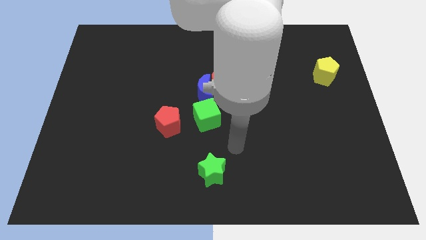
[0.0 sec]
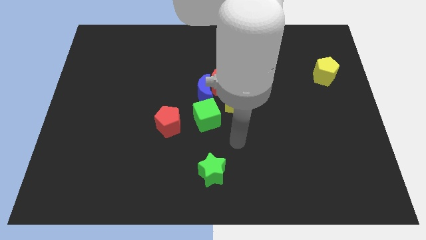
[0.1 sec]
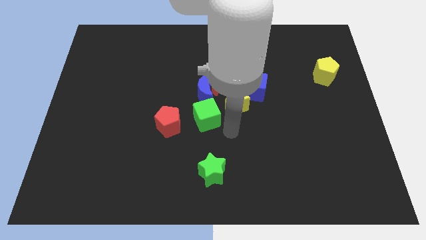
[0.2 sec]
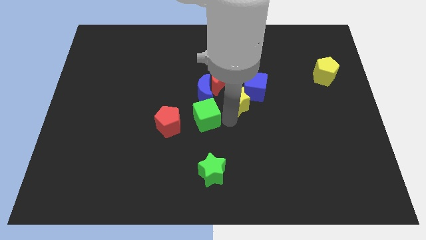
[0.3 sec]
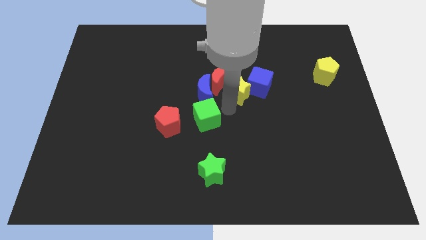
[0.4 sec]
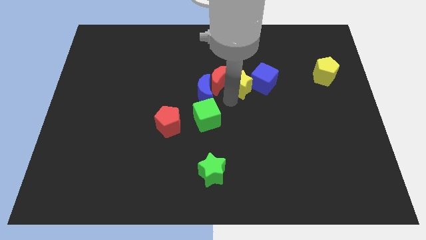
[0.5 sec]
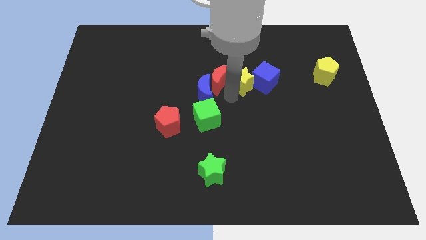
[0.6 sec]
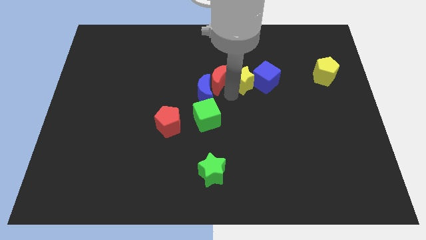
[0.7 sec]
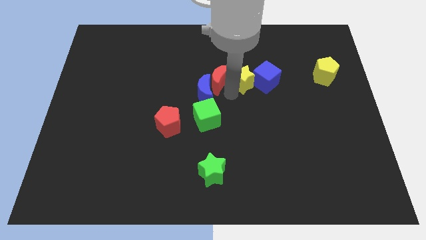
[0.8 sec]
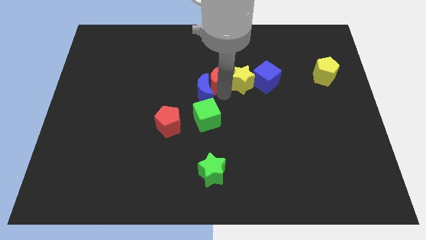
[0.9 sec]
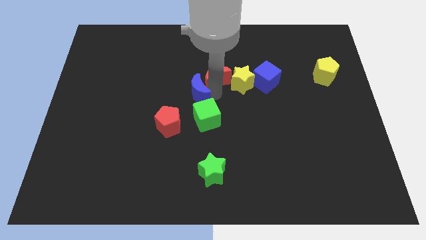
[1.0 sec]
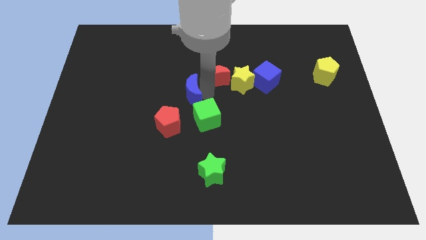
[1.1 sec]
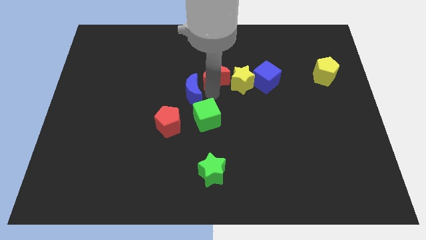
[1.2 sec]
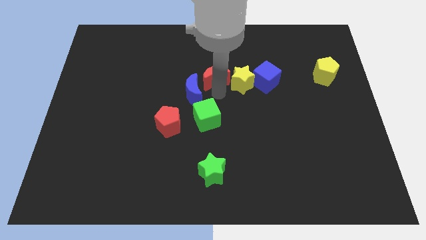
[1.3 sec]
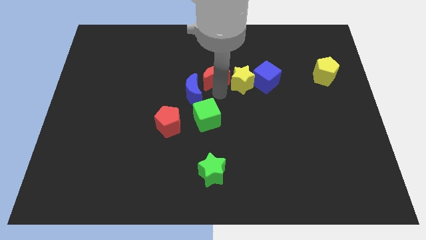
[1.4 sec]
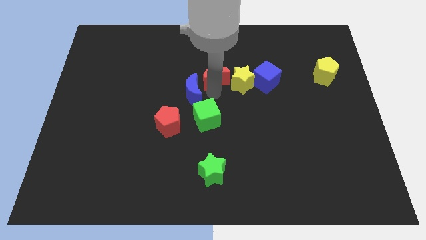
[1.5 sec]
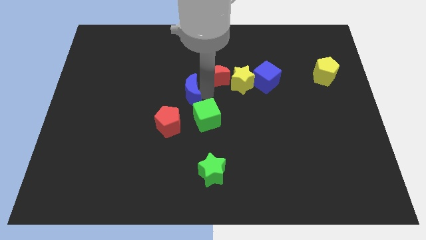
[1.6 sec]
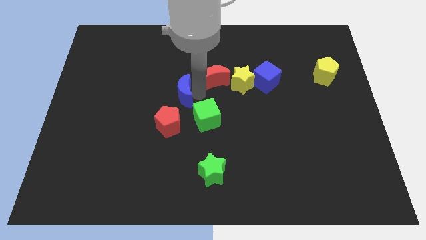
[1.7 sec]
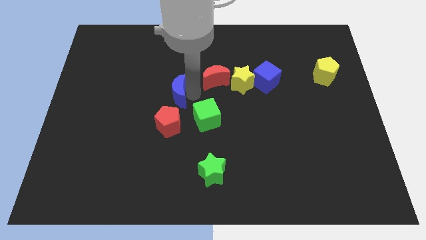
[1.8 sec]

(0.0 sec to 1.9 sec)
pull the blue moon apart from the group of blocks

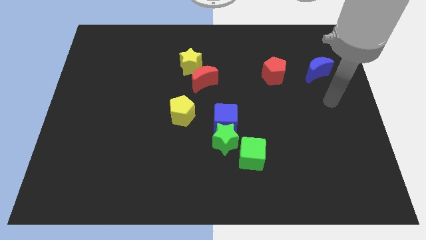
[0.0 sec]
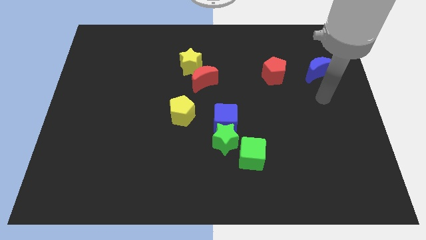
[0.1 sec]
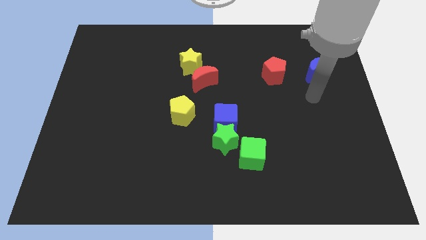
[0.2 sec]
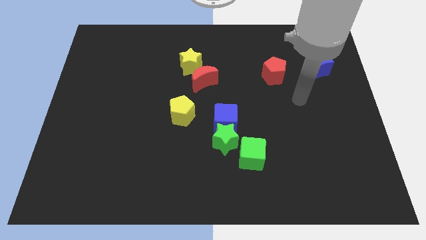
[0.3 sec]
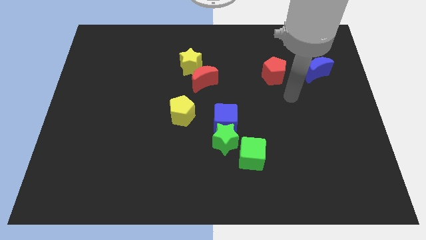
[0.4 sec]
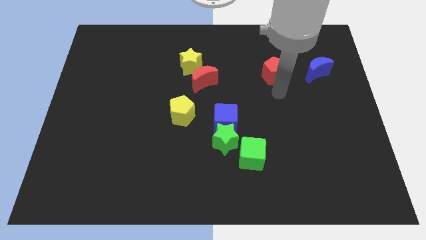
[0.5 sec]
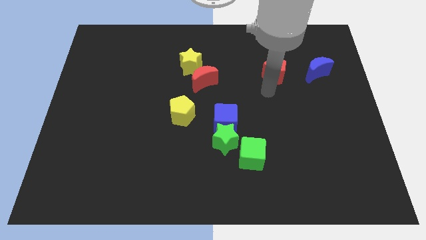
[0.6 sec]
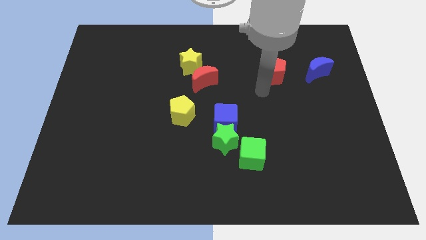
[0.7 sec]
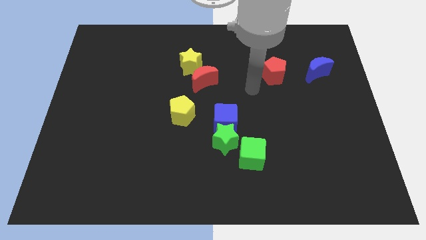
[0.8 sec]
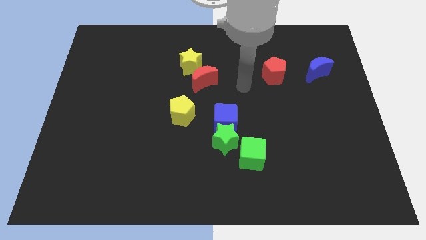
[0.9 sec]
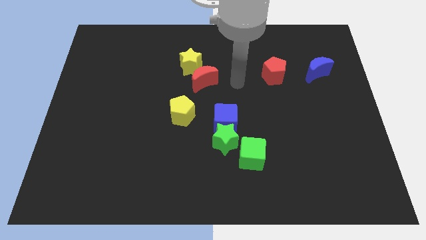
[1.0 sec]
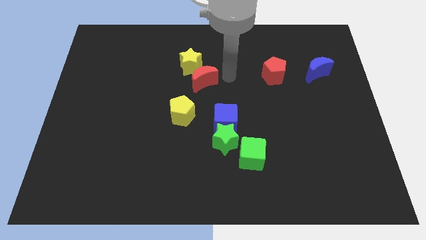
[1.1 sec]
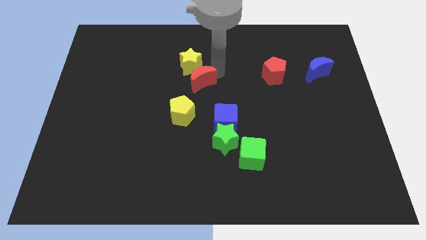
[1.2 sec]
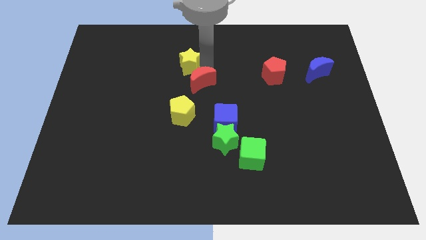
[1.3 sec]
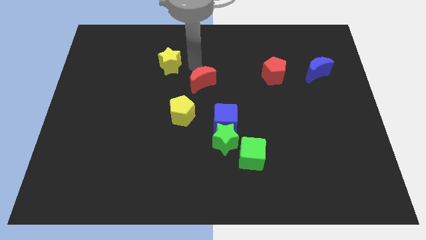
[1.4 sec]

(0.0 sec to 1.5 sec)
pull the red moon apart from the yellow star

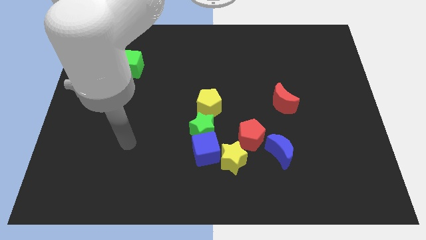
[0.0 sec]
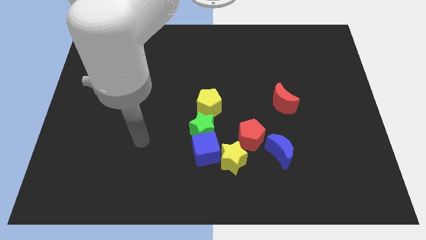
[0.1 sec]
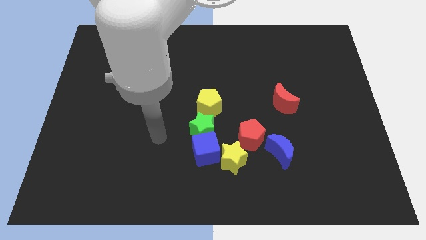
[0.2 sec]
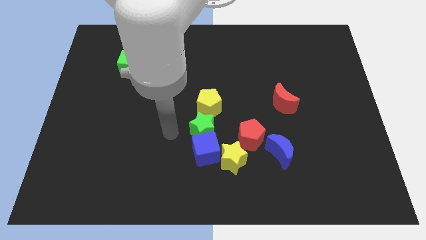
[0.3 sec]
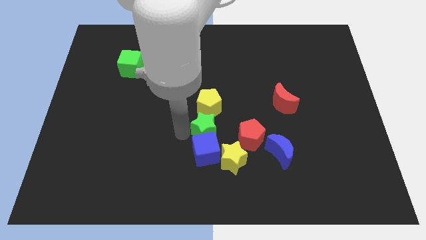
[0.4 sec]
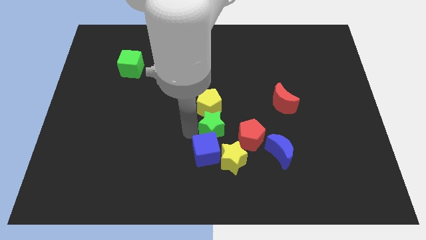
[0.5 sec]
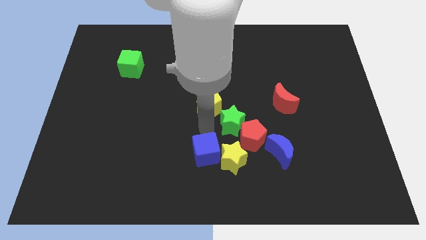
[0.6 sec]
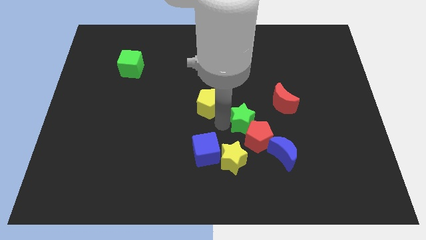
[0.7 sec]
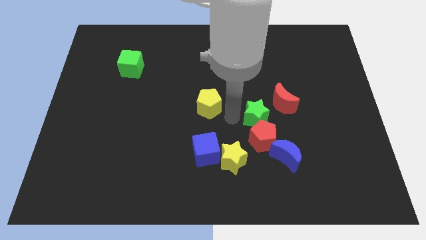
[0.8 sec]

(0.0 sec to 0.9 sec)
pull the yellow pentagon apart from the green star

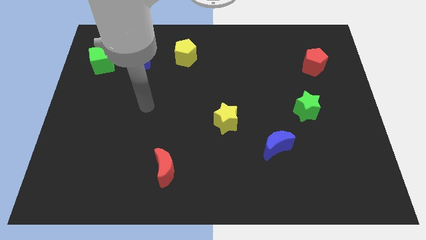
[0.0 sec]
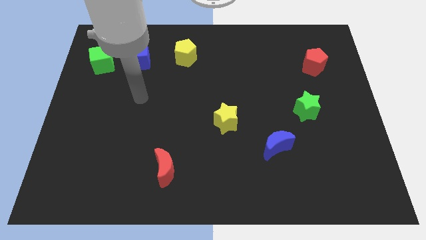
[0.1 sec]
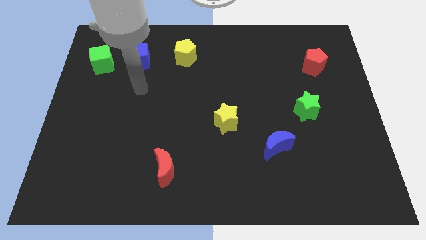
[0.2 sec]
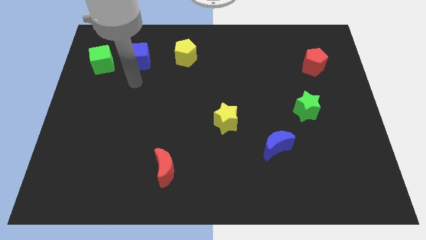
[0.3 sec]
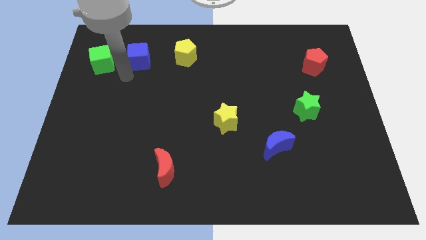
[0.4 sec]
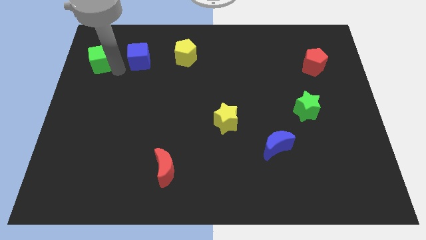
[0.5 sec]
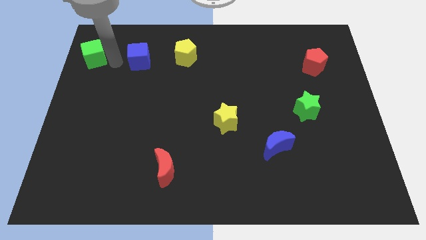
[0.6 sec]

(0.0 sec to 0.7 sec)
move the blue cube away from the green cube

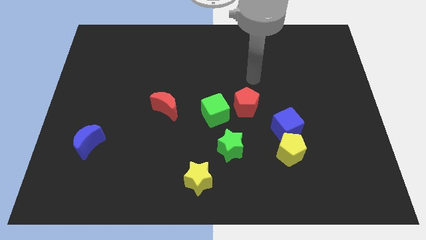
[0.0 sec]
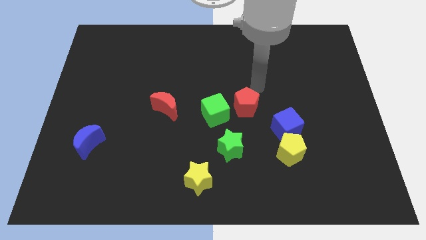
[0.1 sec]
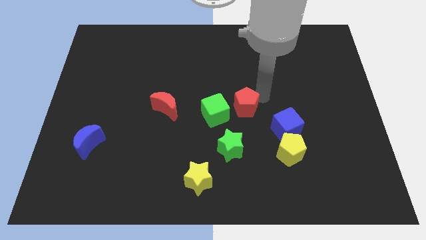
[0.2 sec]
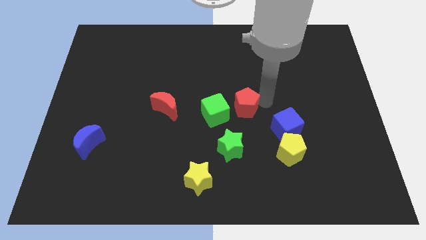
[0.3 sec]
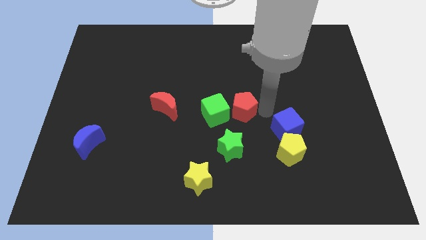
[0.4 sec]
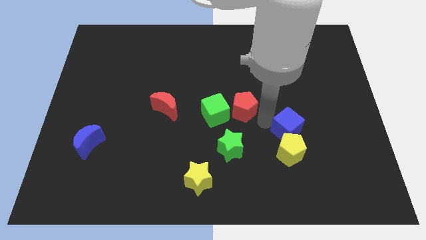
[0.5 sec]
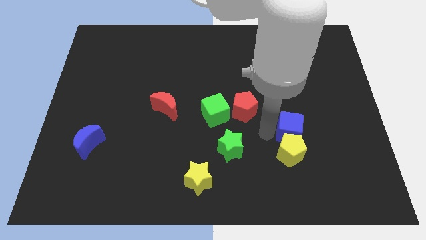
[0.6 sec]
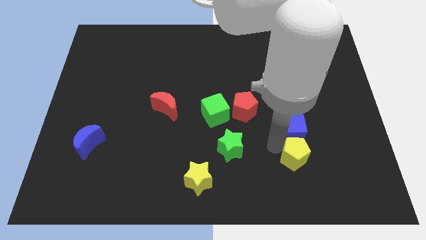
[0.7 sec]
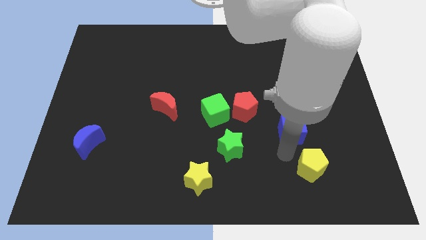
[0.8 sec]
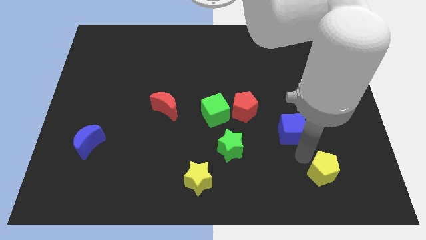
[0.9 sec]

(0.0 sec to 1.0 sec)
pull the blue cube apart from the yellow pentagon

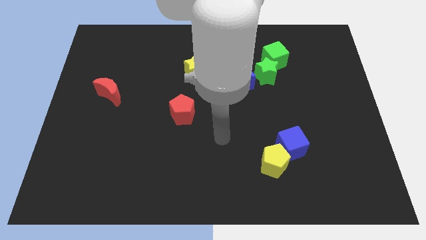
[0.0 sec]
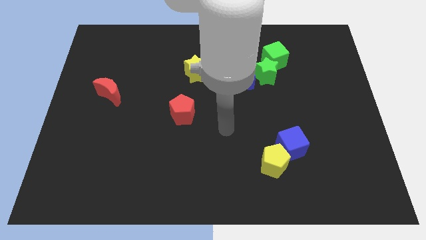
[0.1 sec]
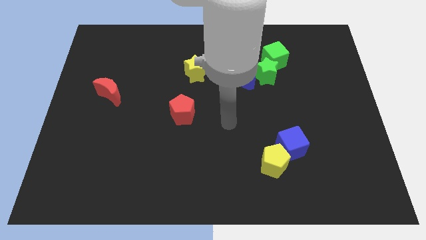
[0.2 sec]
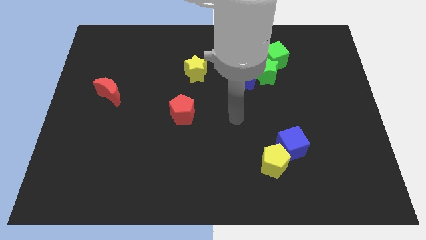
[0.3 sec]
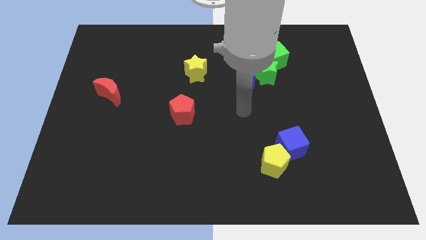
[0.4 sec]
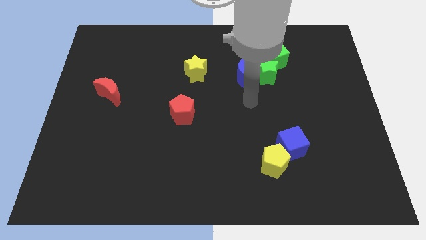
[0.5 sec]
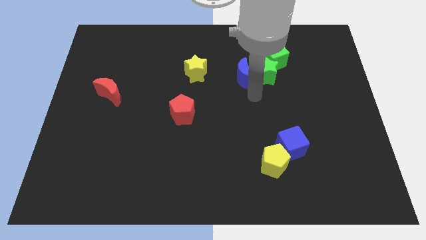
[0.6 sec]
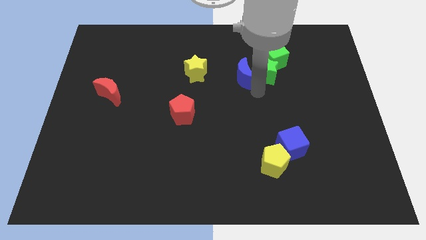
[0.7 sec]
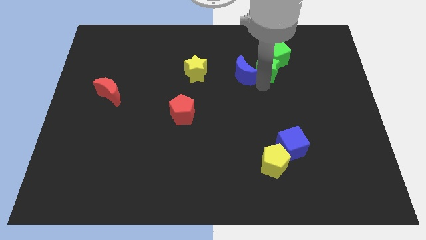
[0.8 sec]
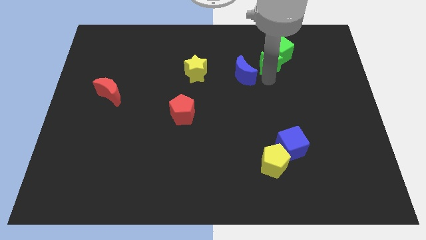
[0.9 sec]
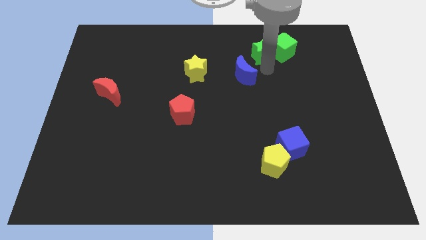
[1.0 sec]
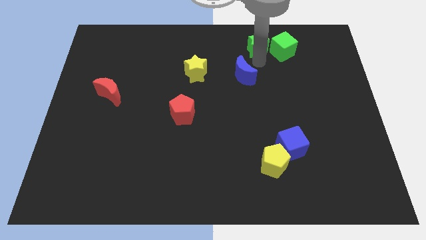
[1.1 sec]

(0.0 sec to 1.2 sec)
move the blue moon away from the green star

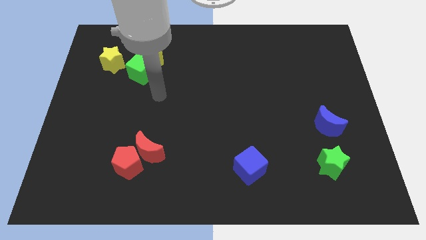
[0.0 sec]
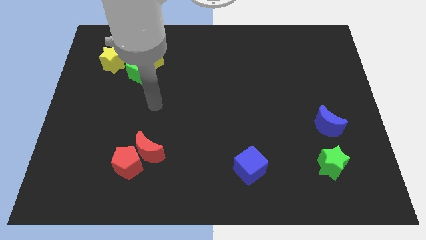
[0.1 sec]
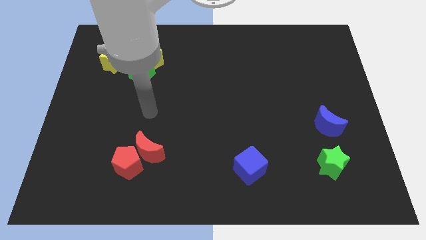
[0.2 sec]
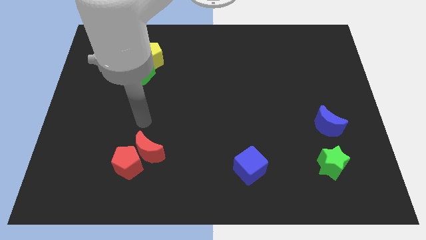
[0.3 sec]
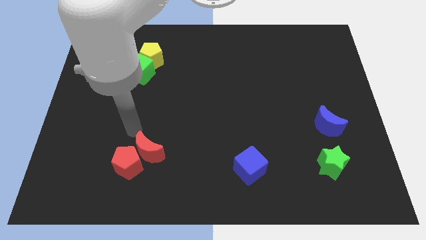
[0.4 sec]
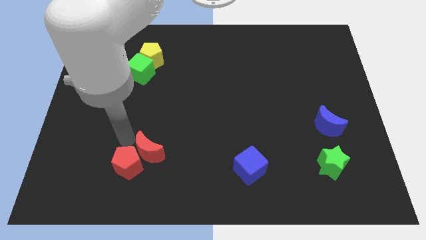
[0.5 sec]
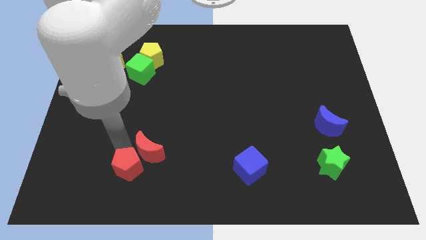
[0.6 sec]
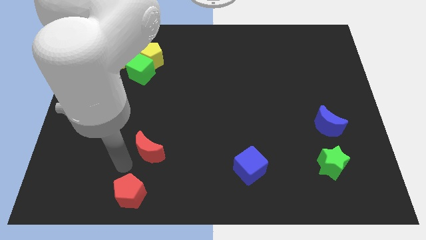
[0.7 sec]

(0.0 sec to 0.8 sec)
pull the red moon apart from the red pentagon

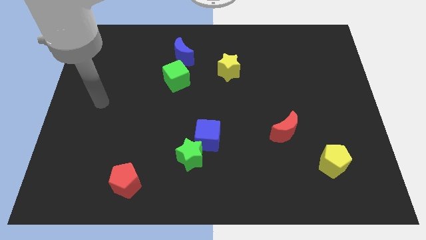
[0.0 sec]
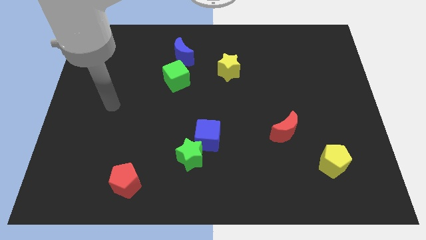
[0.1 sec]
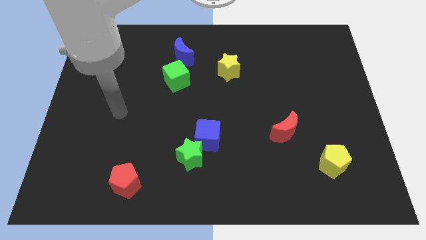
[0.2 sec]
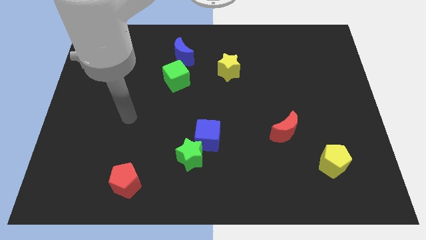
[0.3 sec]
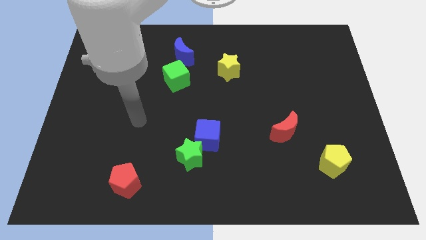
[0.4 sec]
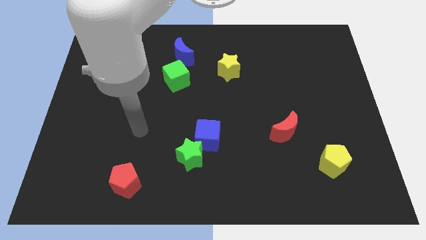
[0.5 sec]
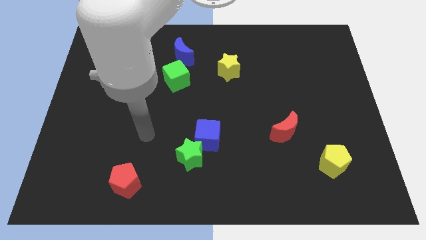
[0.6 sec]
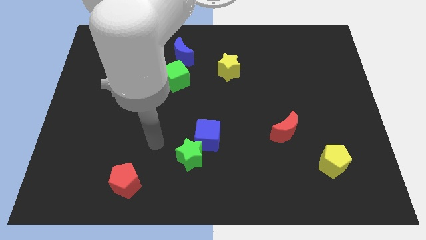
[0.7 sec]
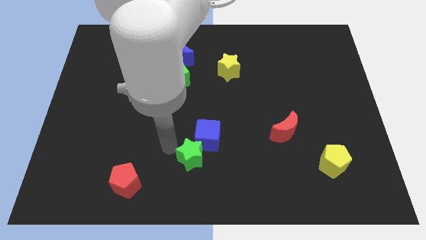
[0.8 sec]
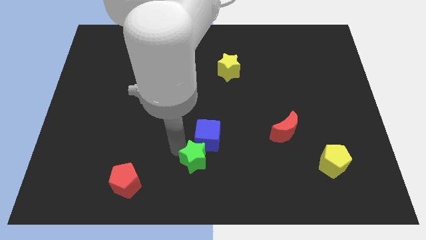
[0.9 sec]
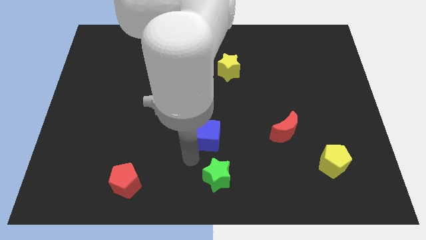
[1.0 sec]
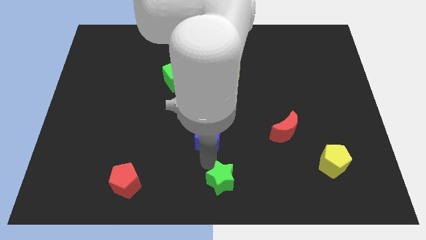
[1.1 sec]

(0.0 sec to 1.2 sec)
pull the blue cube apart from the green star
